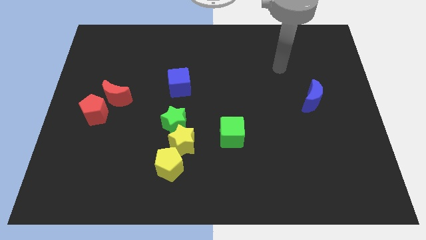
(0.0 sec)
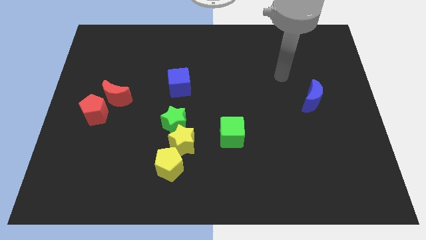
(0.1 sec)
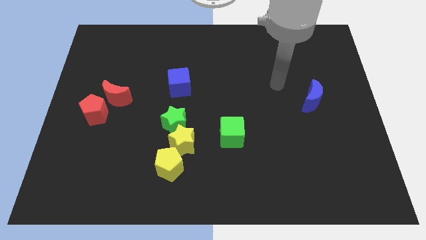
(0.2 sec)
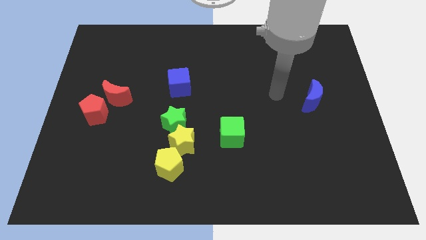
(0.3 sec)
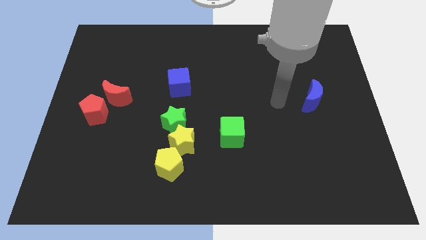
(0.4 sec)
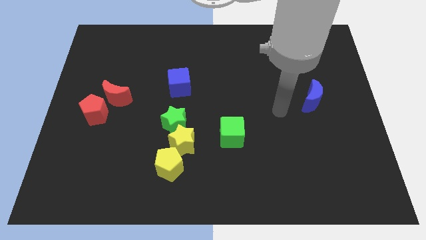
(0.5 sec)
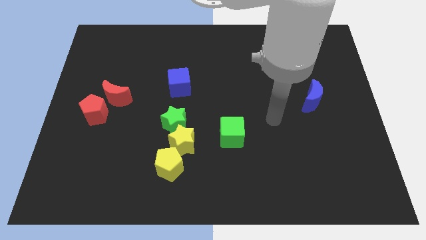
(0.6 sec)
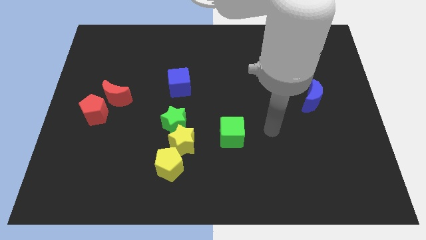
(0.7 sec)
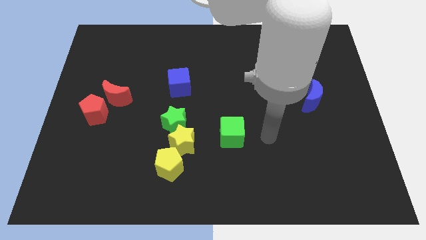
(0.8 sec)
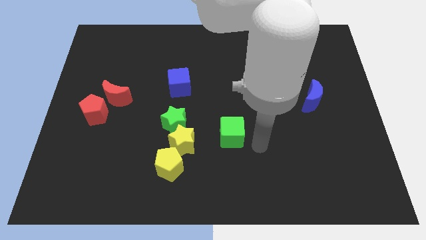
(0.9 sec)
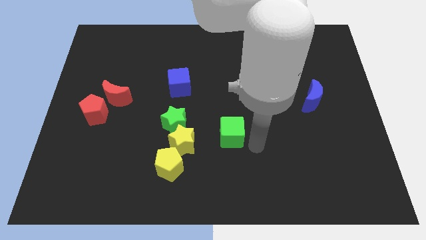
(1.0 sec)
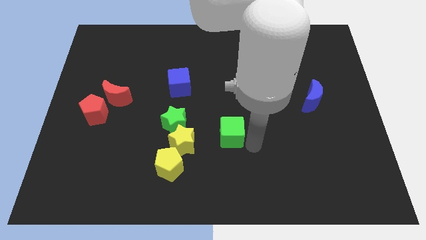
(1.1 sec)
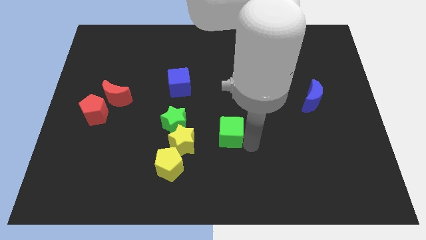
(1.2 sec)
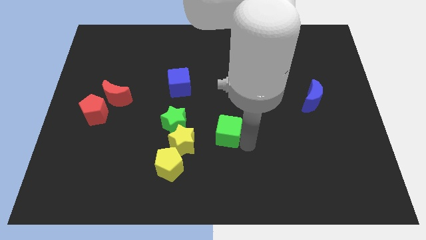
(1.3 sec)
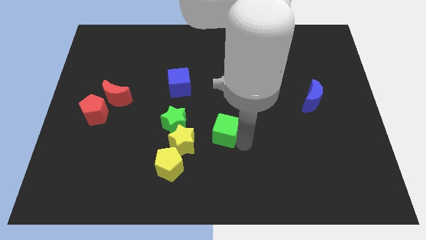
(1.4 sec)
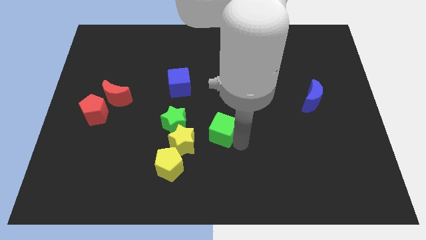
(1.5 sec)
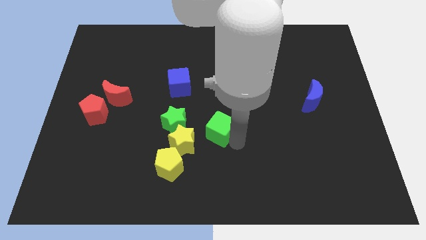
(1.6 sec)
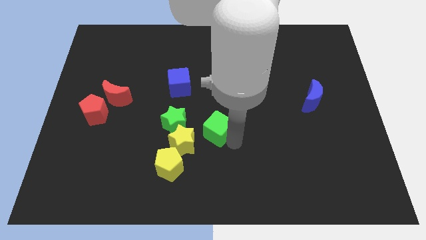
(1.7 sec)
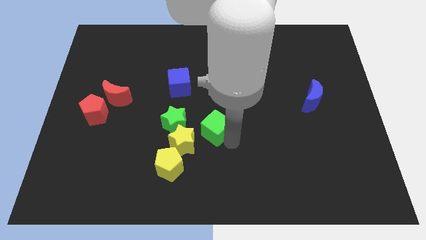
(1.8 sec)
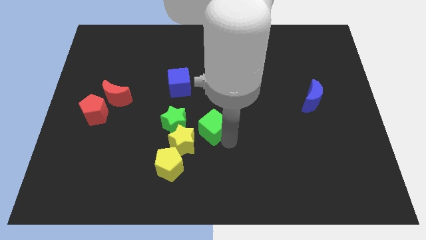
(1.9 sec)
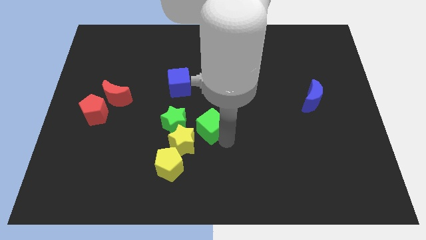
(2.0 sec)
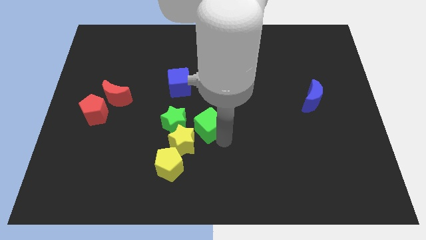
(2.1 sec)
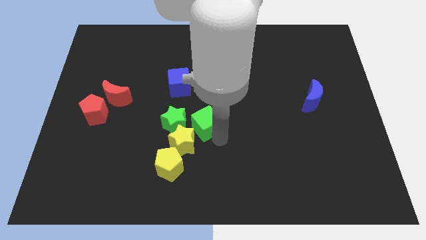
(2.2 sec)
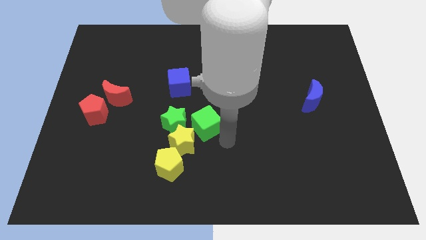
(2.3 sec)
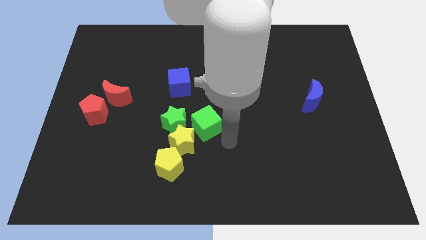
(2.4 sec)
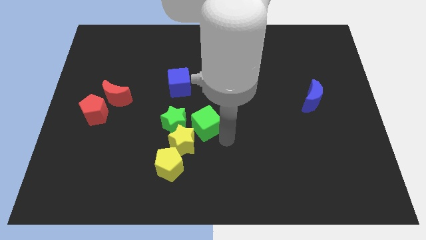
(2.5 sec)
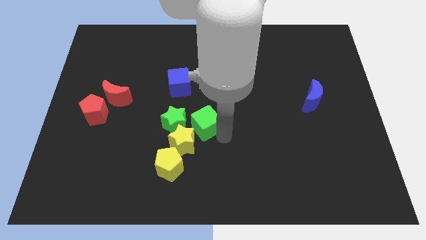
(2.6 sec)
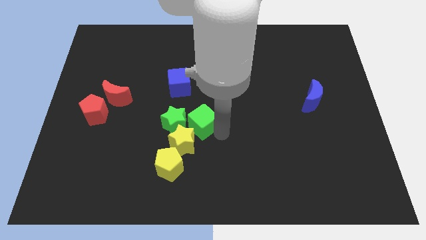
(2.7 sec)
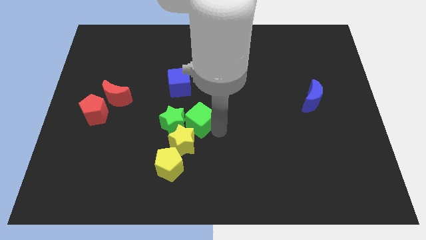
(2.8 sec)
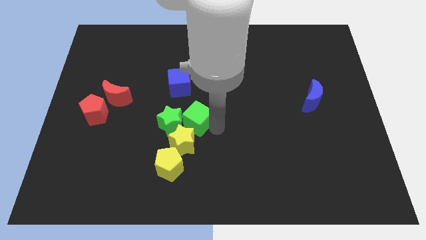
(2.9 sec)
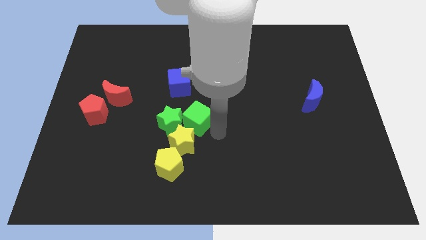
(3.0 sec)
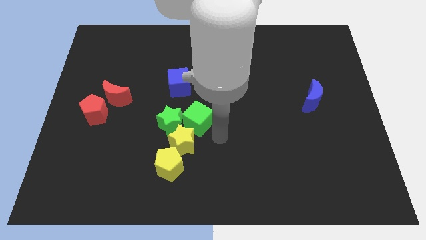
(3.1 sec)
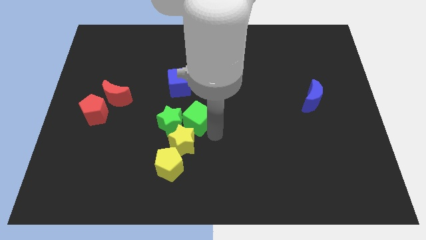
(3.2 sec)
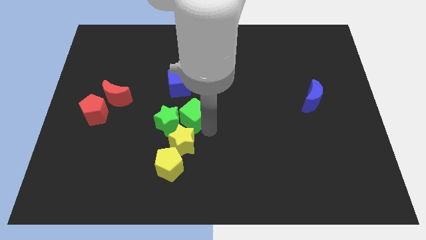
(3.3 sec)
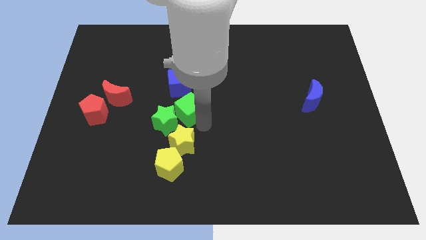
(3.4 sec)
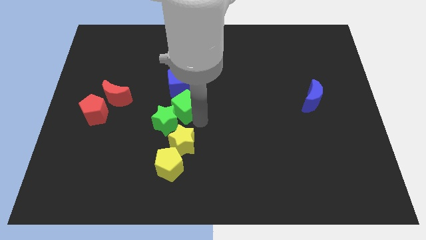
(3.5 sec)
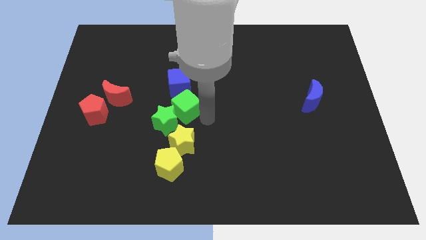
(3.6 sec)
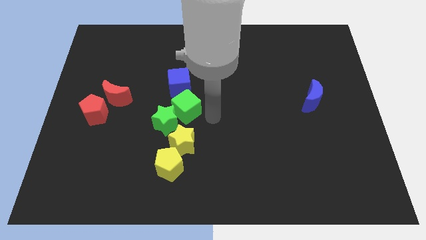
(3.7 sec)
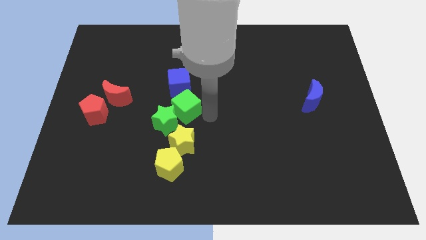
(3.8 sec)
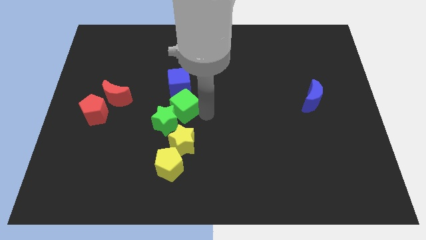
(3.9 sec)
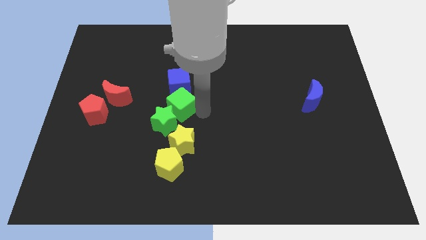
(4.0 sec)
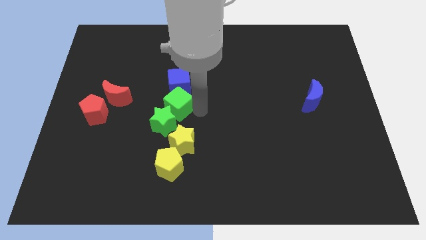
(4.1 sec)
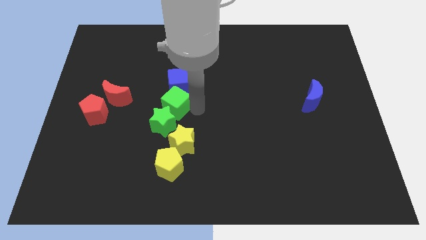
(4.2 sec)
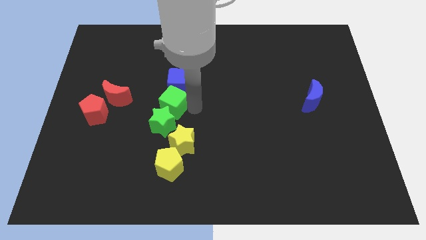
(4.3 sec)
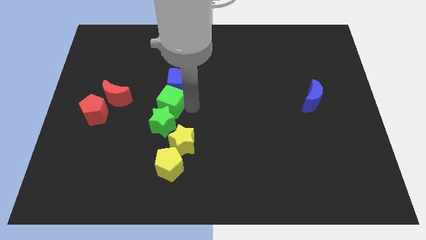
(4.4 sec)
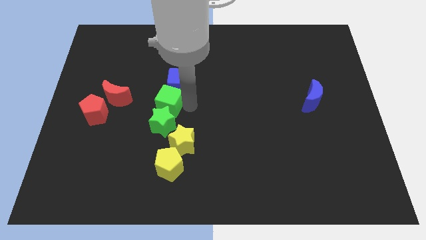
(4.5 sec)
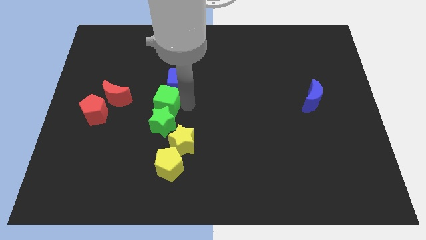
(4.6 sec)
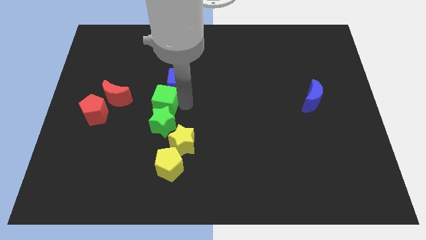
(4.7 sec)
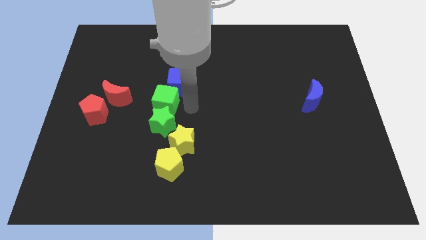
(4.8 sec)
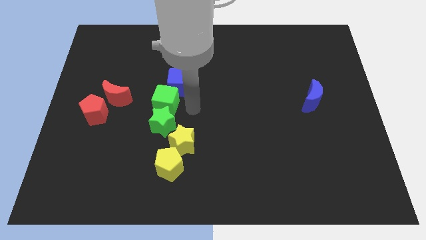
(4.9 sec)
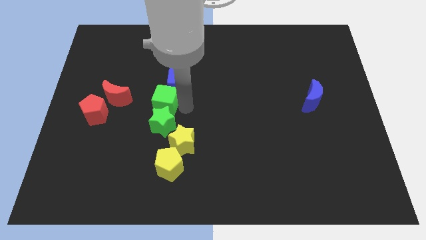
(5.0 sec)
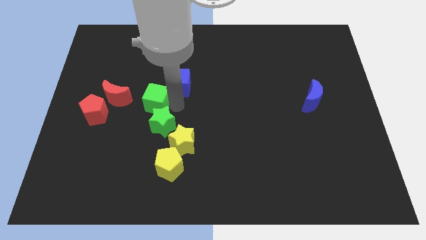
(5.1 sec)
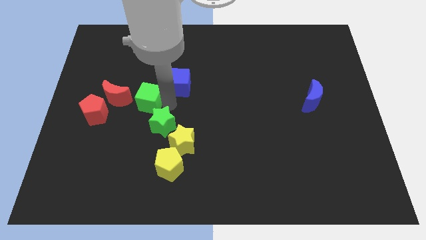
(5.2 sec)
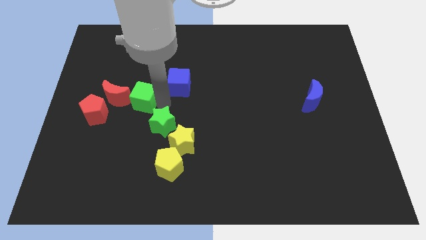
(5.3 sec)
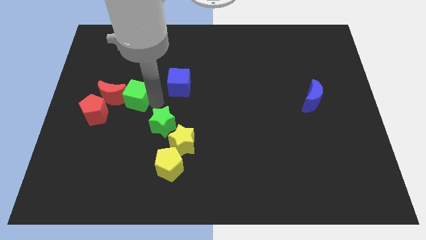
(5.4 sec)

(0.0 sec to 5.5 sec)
put the green cube towards the red moon

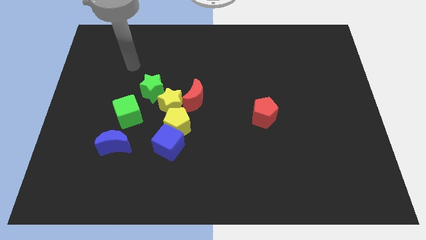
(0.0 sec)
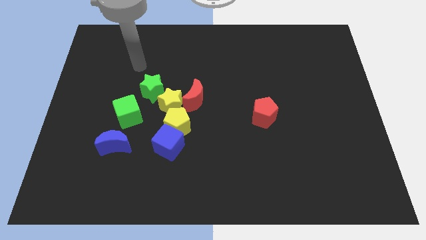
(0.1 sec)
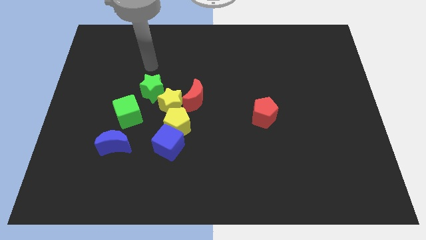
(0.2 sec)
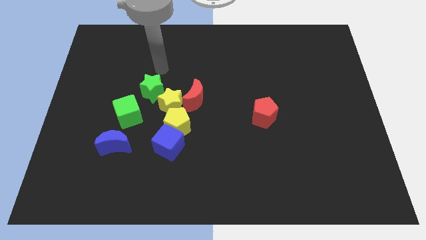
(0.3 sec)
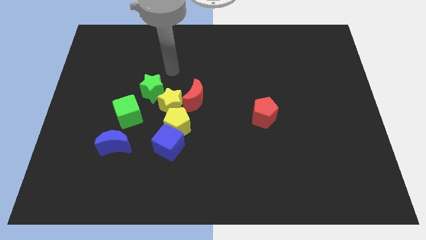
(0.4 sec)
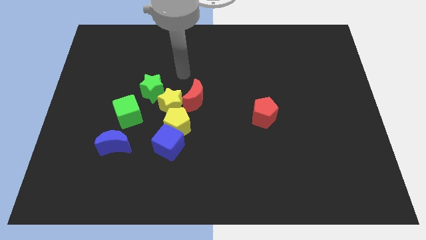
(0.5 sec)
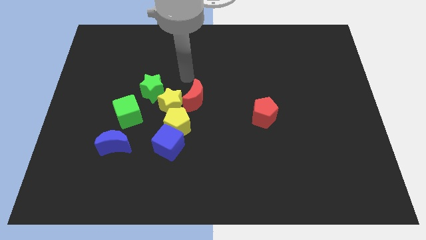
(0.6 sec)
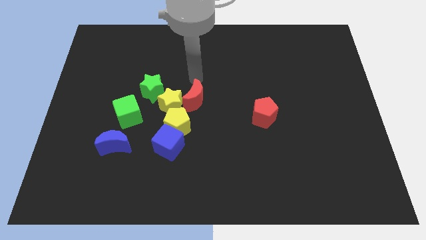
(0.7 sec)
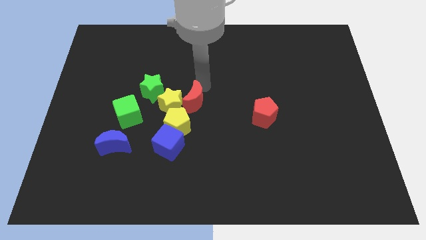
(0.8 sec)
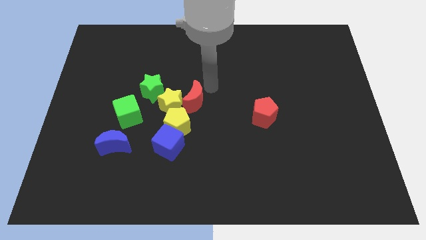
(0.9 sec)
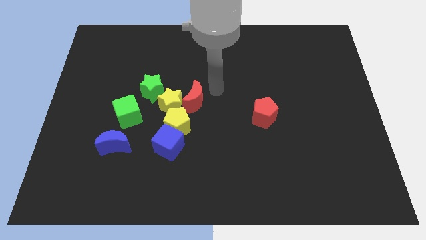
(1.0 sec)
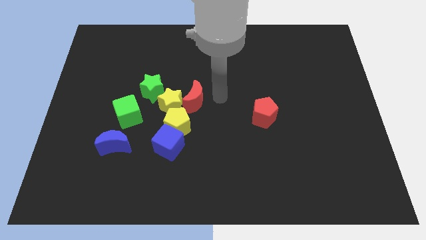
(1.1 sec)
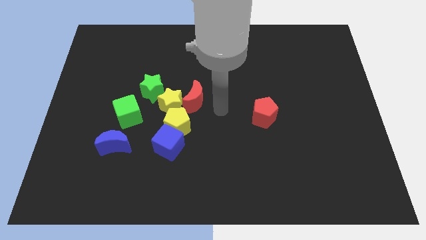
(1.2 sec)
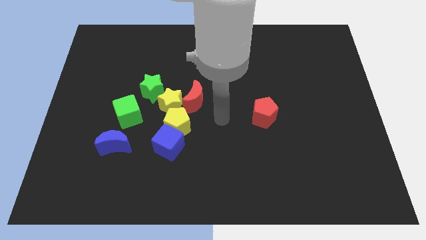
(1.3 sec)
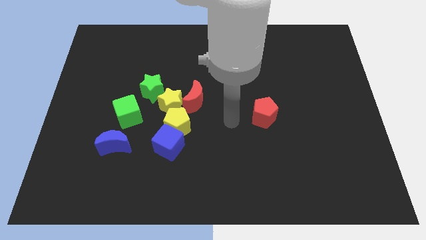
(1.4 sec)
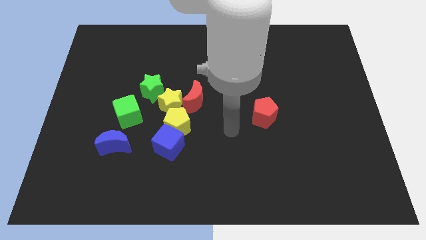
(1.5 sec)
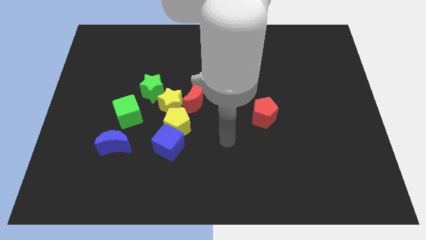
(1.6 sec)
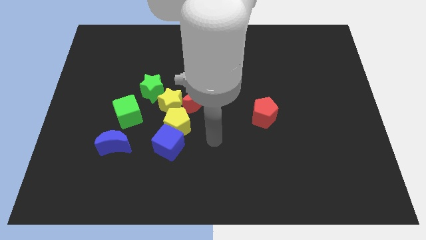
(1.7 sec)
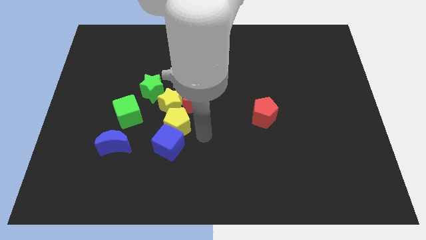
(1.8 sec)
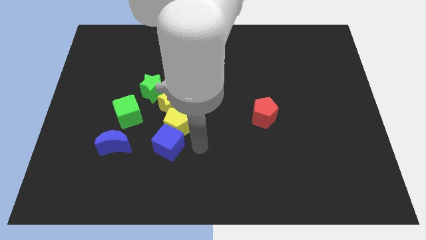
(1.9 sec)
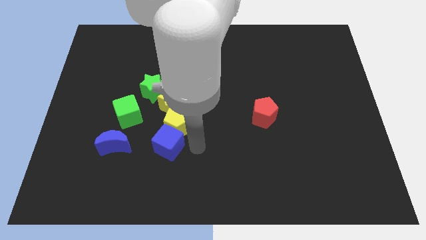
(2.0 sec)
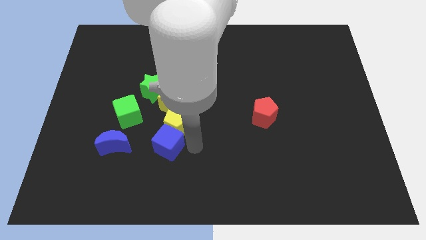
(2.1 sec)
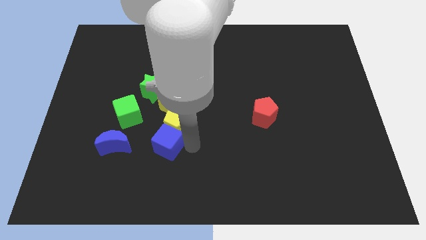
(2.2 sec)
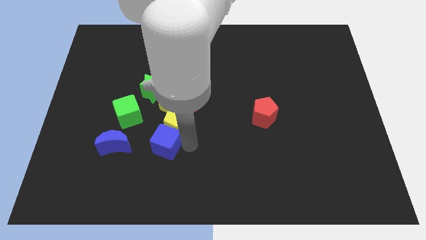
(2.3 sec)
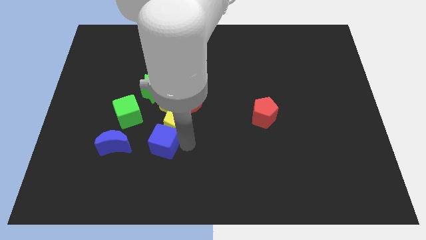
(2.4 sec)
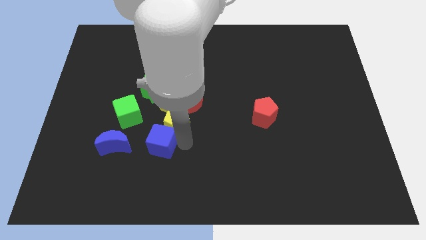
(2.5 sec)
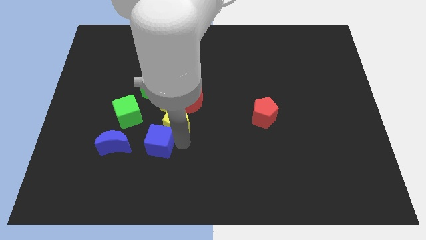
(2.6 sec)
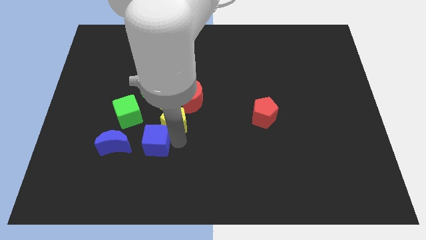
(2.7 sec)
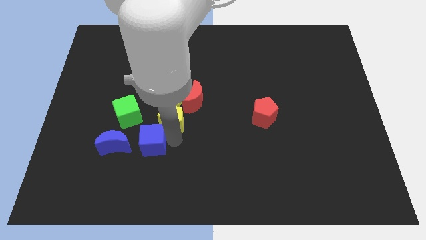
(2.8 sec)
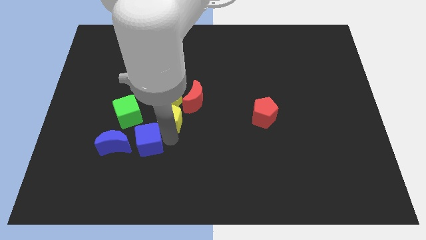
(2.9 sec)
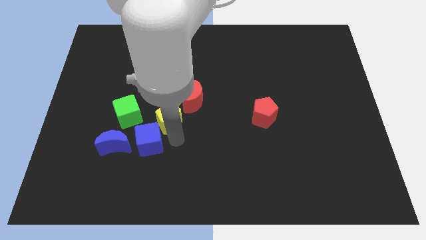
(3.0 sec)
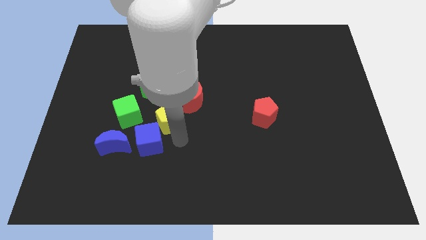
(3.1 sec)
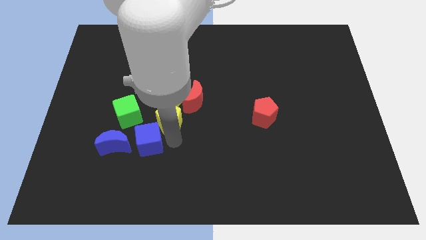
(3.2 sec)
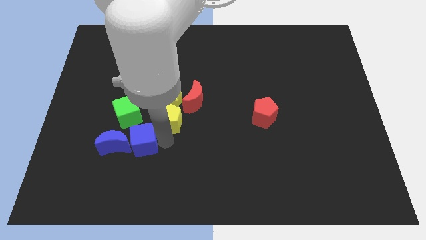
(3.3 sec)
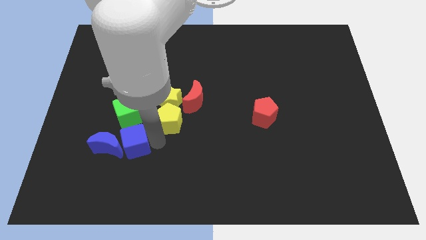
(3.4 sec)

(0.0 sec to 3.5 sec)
push the blue cube close to the blue moon
